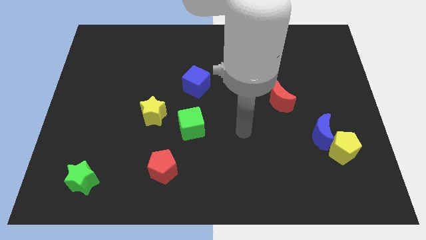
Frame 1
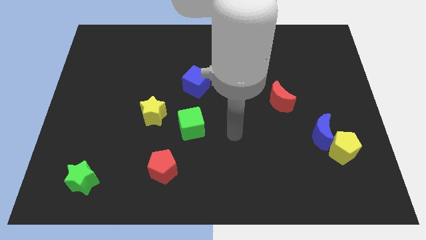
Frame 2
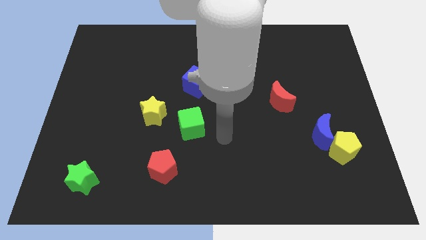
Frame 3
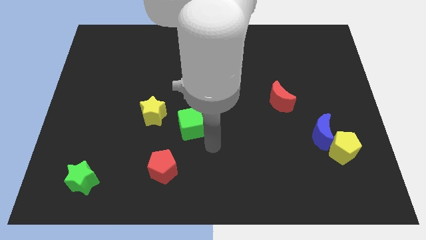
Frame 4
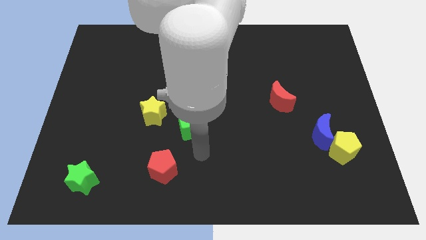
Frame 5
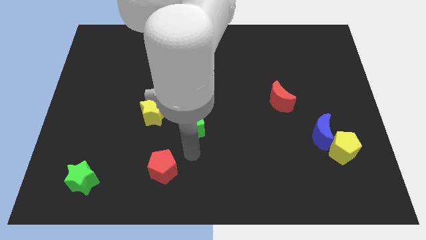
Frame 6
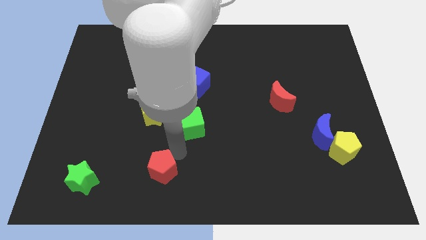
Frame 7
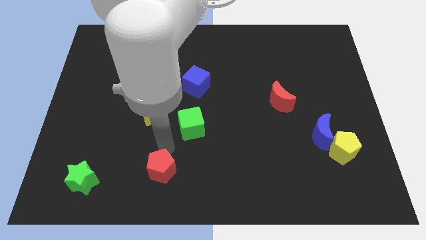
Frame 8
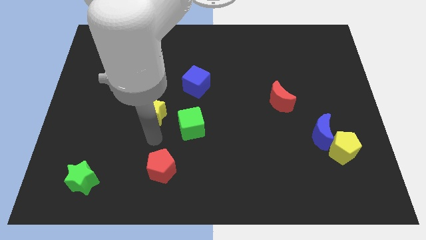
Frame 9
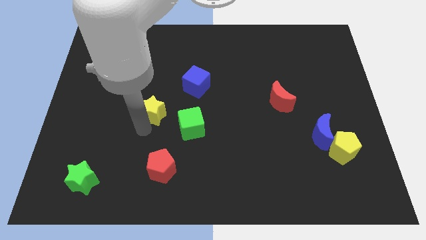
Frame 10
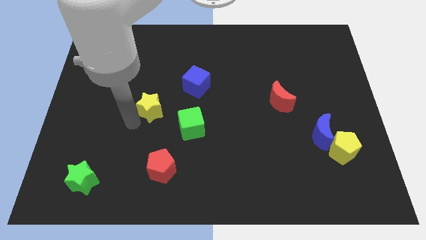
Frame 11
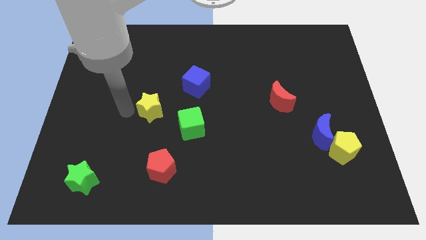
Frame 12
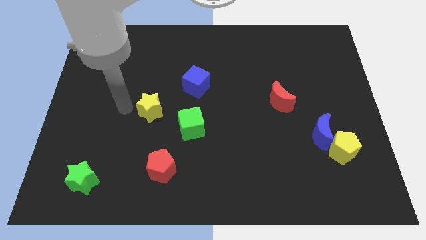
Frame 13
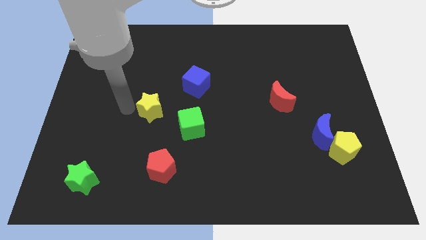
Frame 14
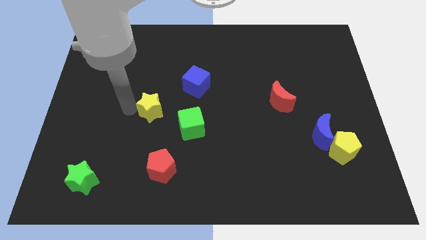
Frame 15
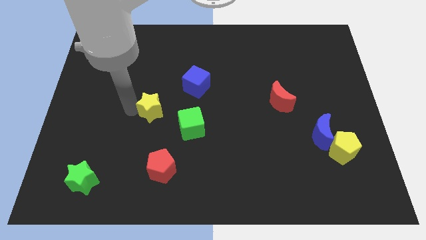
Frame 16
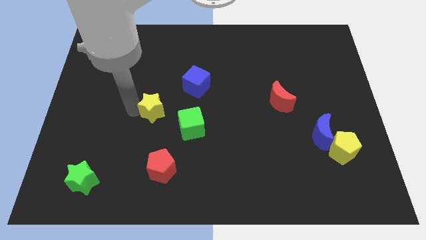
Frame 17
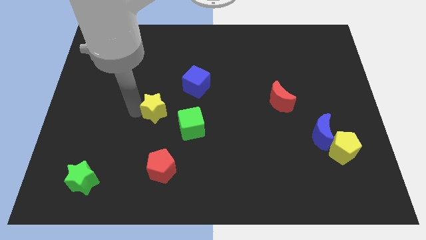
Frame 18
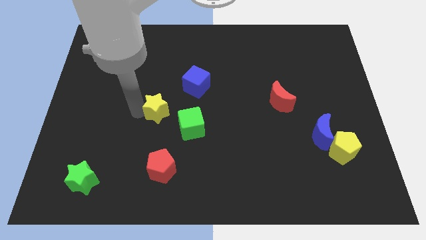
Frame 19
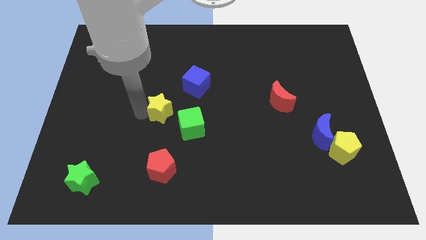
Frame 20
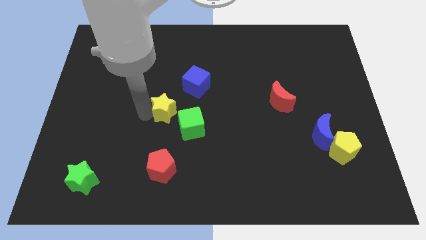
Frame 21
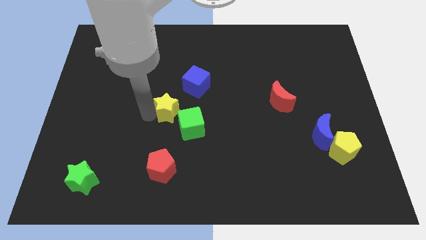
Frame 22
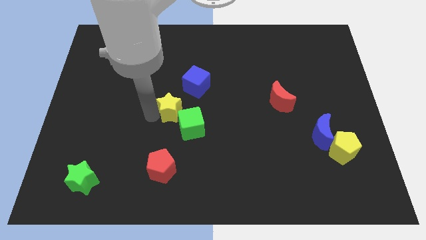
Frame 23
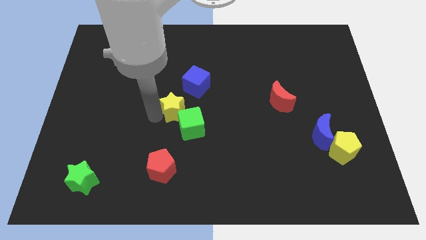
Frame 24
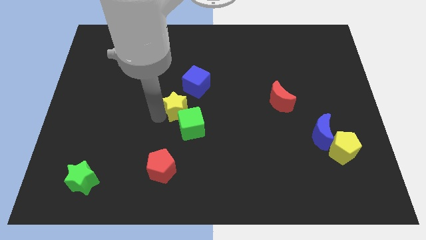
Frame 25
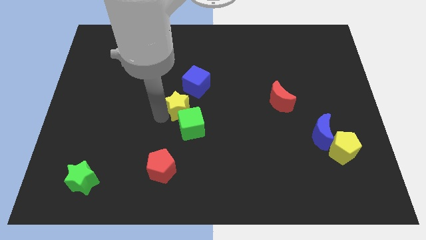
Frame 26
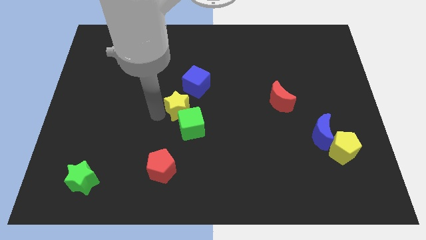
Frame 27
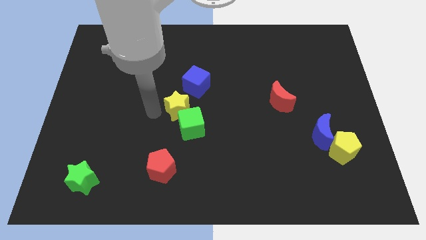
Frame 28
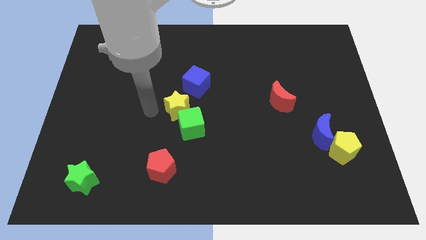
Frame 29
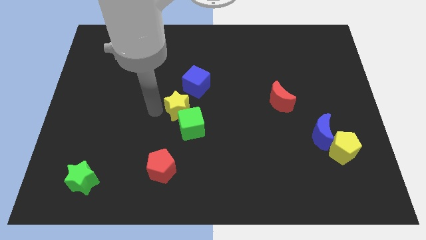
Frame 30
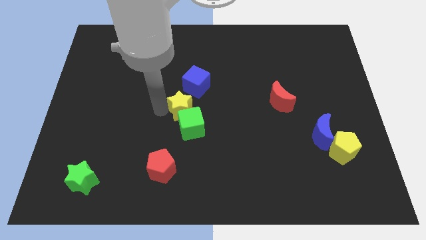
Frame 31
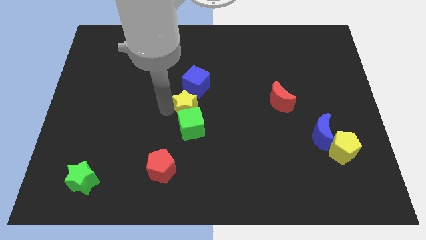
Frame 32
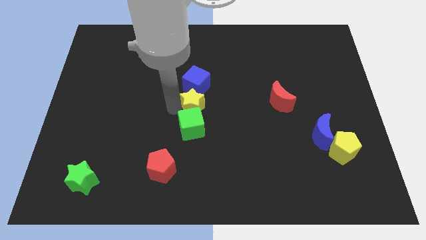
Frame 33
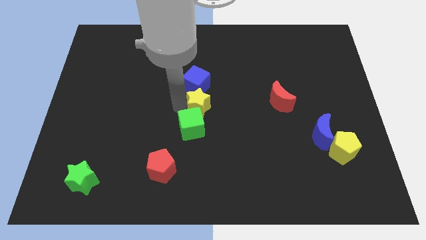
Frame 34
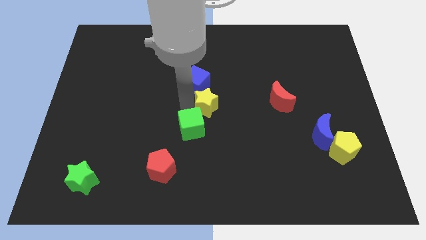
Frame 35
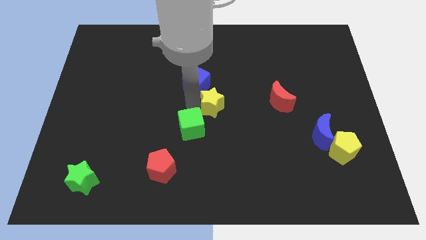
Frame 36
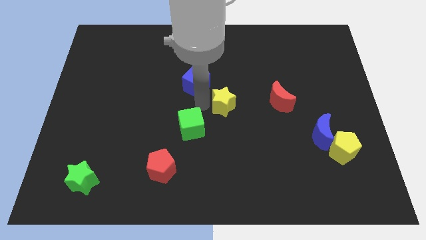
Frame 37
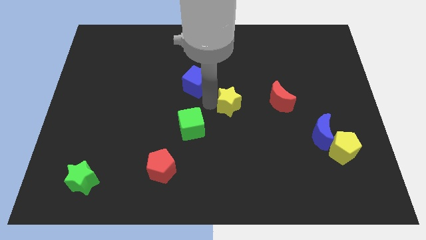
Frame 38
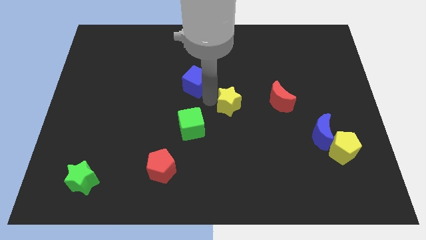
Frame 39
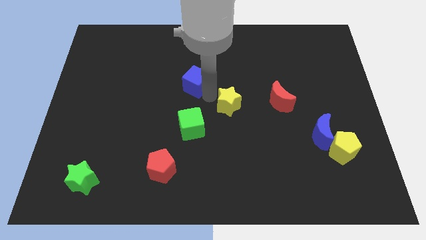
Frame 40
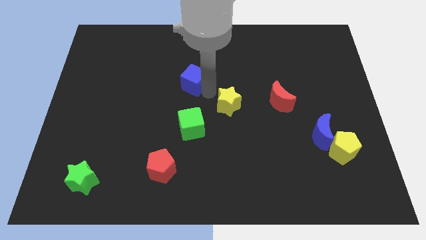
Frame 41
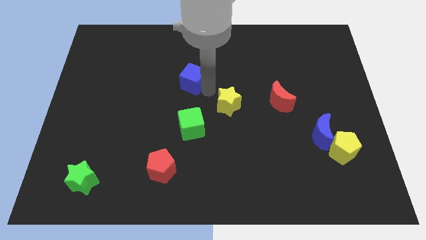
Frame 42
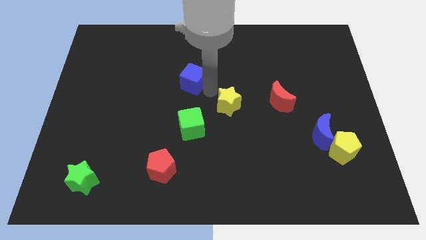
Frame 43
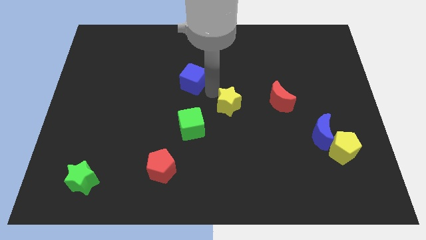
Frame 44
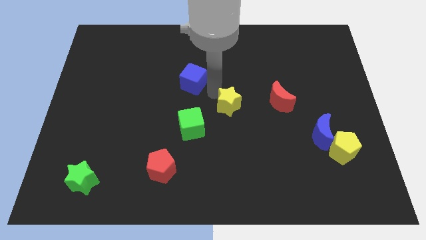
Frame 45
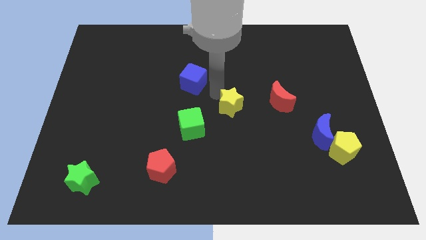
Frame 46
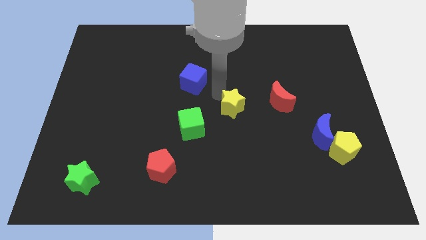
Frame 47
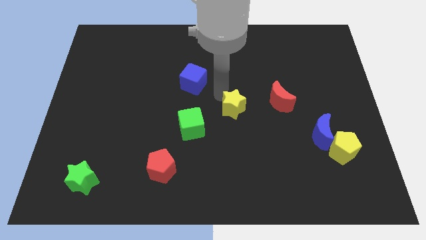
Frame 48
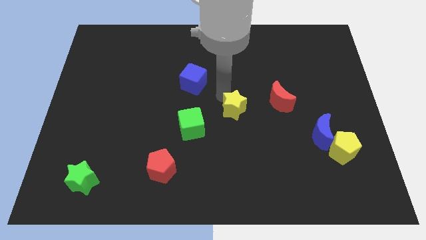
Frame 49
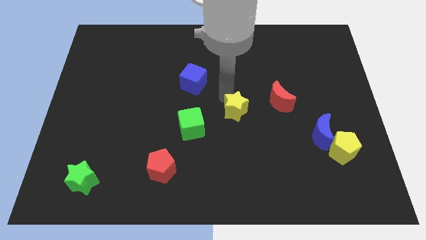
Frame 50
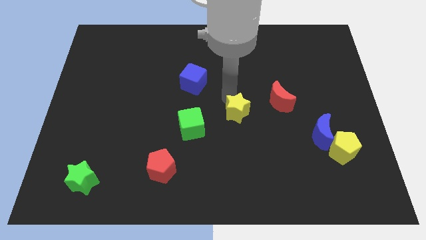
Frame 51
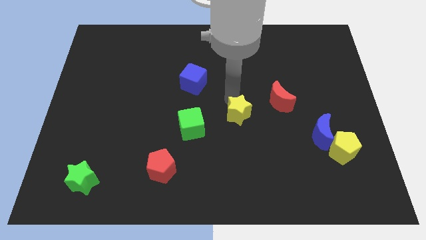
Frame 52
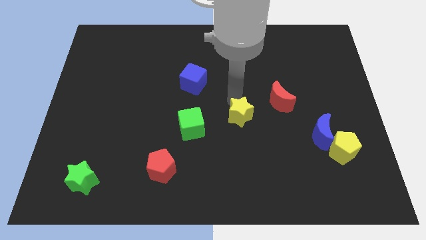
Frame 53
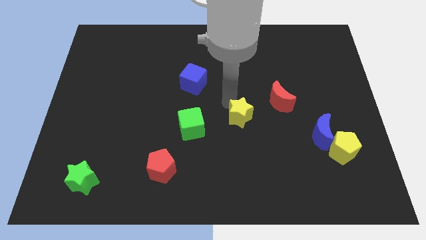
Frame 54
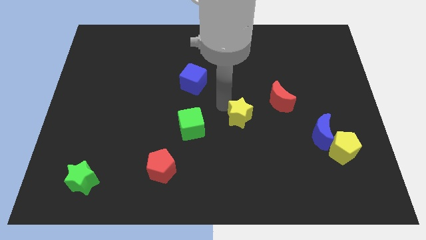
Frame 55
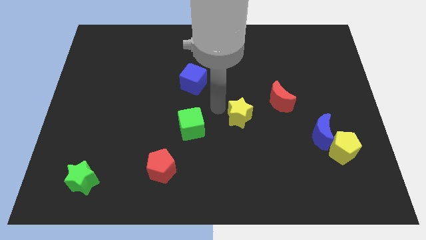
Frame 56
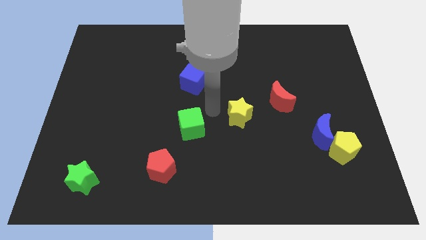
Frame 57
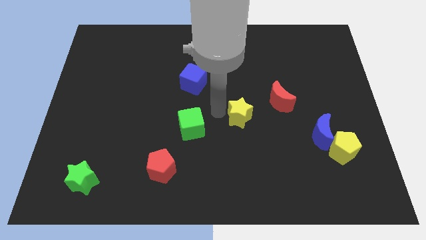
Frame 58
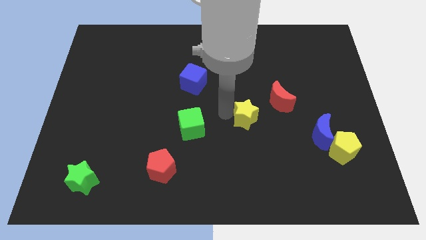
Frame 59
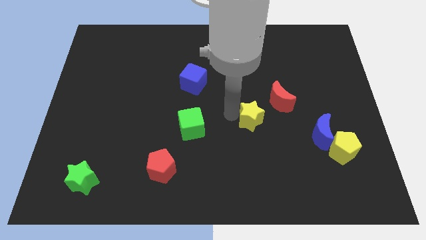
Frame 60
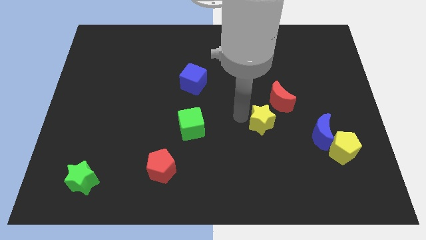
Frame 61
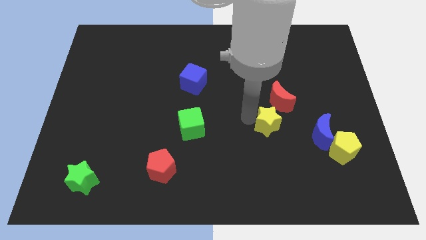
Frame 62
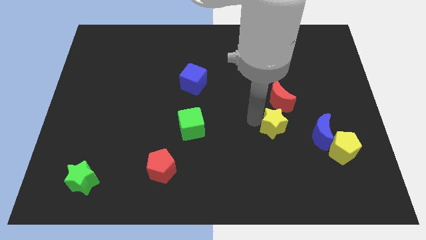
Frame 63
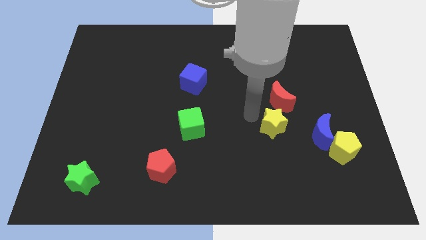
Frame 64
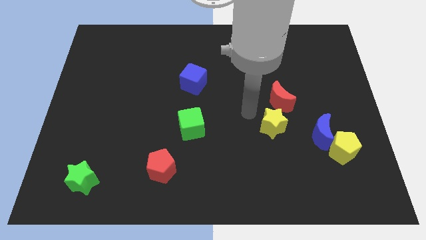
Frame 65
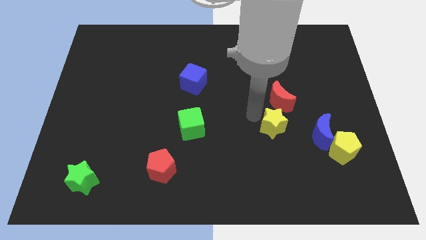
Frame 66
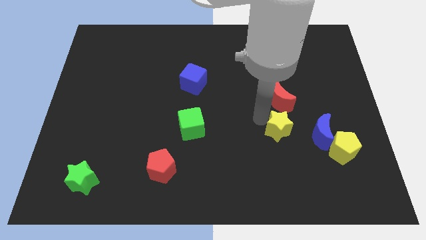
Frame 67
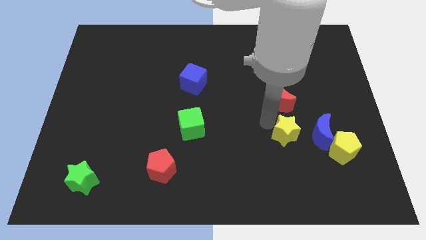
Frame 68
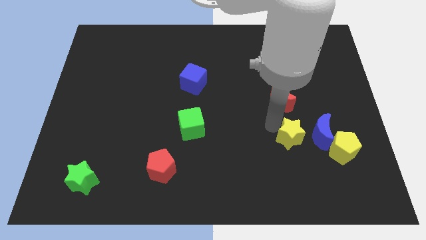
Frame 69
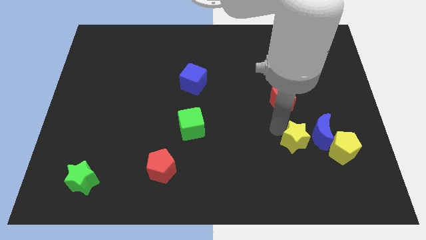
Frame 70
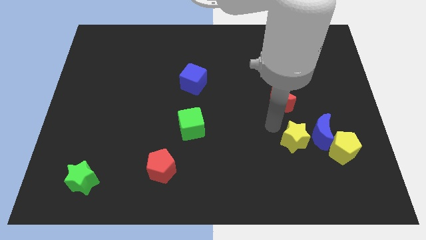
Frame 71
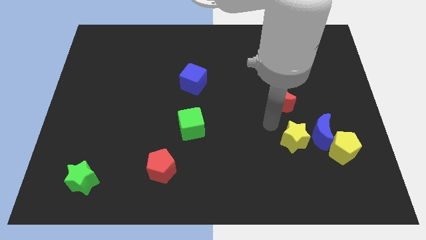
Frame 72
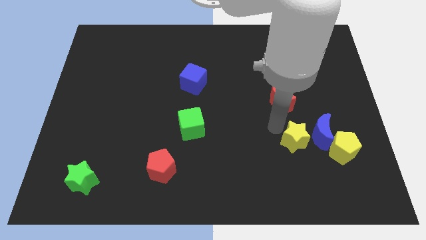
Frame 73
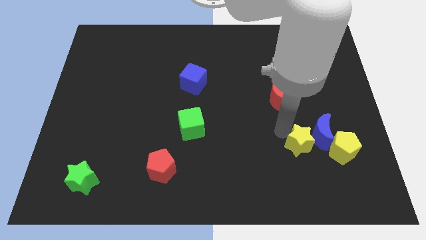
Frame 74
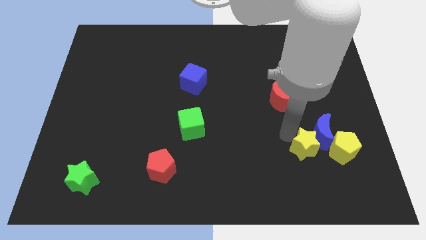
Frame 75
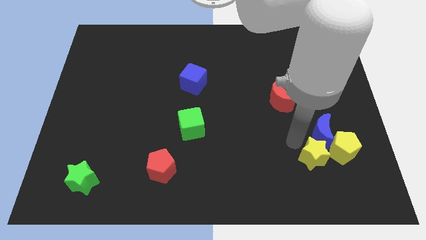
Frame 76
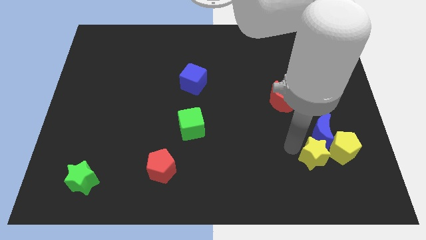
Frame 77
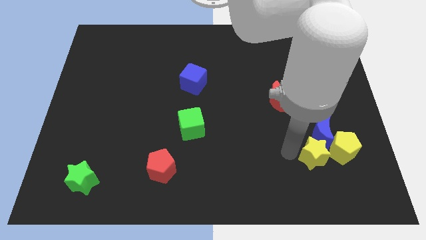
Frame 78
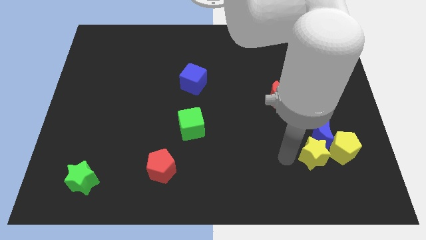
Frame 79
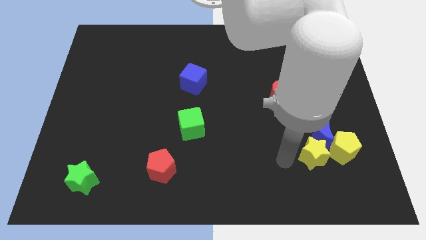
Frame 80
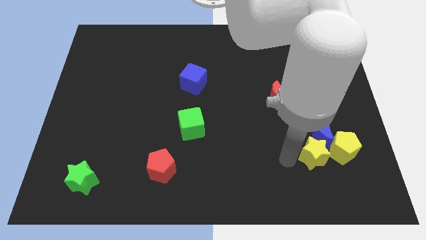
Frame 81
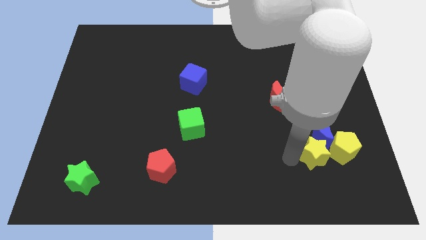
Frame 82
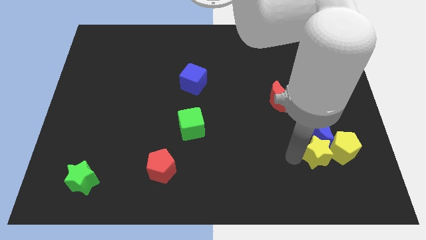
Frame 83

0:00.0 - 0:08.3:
move the yellow star next to the yellow pentagon
